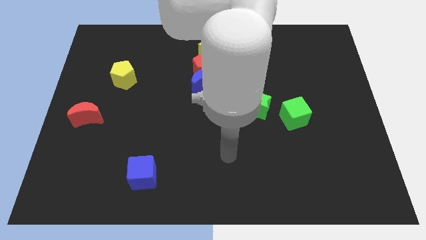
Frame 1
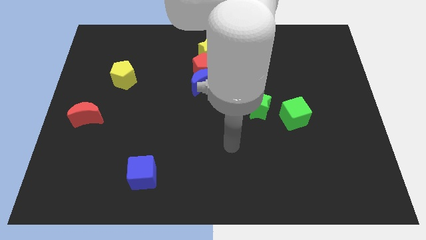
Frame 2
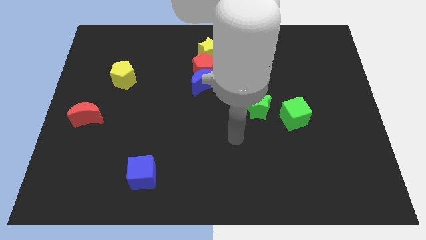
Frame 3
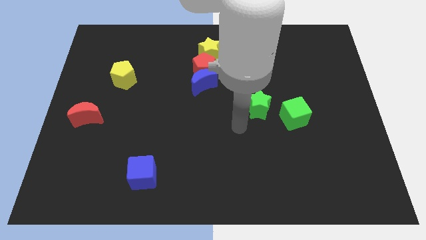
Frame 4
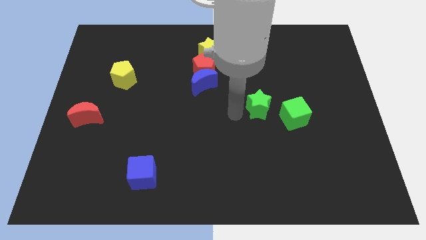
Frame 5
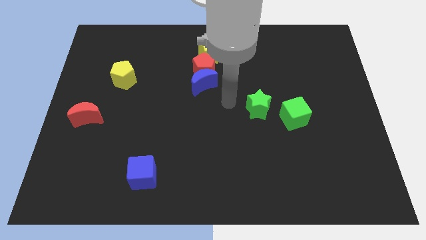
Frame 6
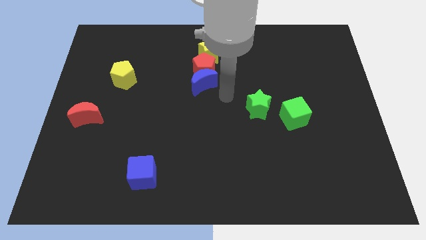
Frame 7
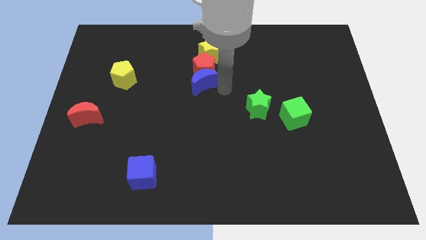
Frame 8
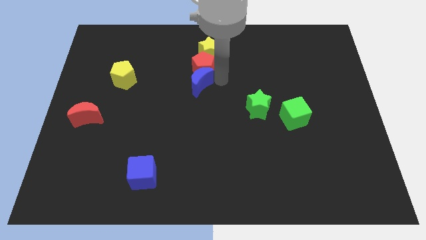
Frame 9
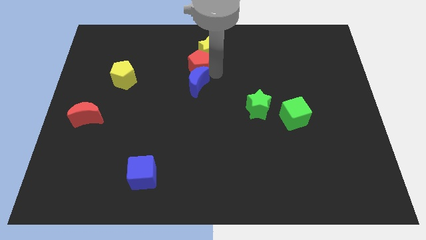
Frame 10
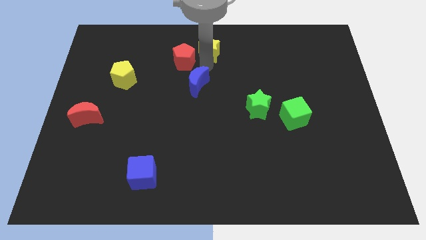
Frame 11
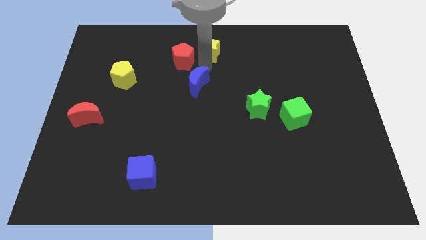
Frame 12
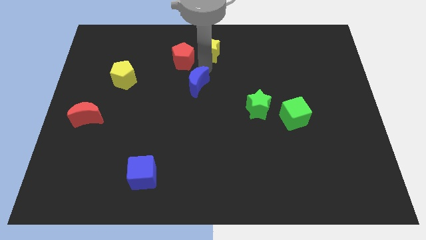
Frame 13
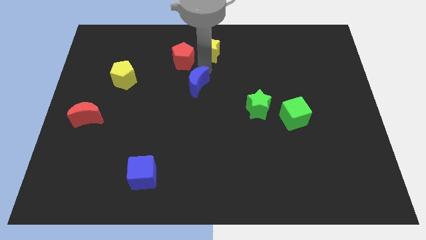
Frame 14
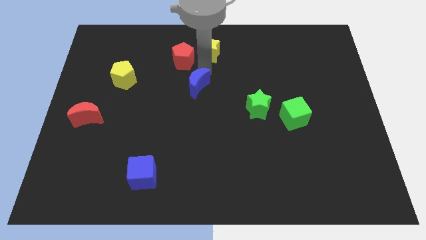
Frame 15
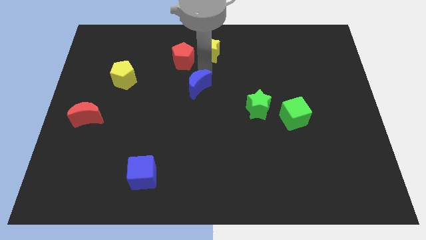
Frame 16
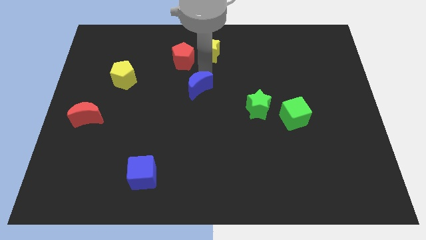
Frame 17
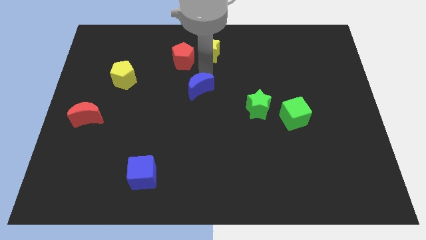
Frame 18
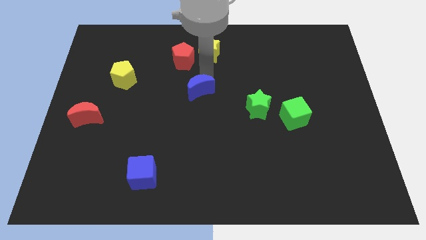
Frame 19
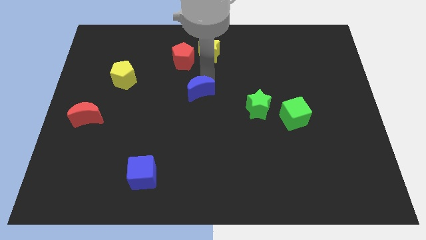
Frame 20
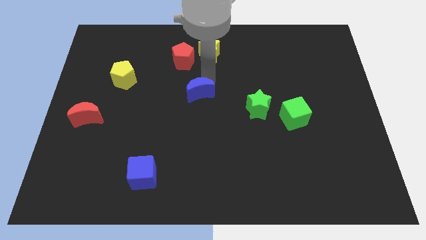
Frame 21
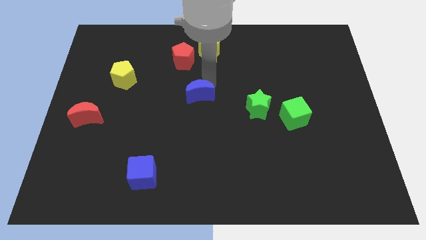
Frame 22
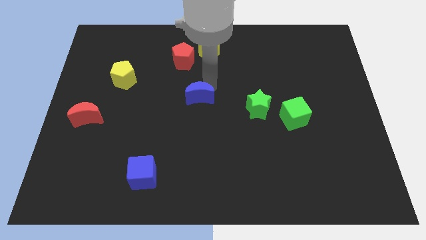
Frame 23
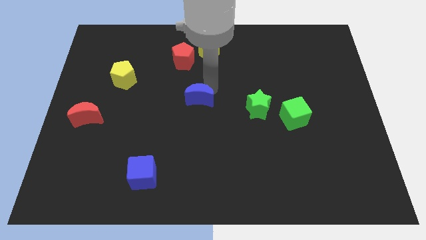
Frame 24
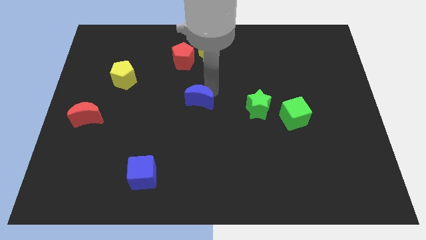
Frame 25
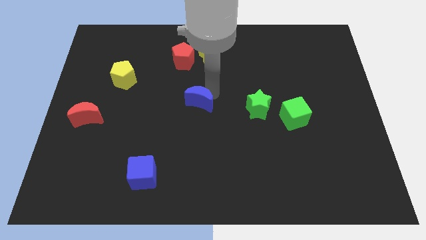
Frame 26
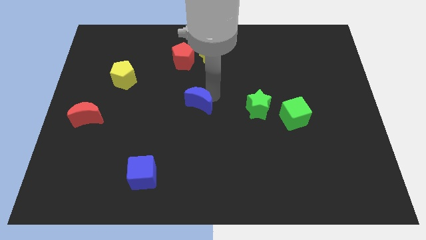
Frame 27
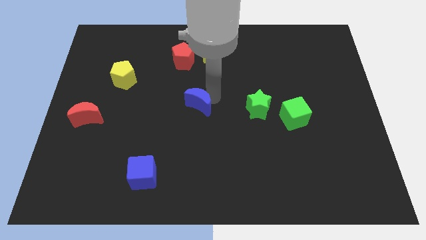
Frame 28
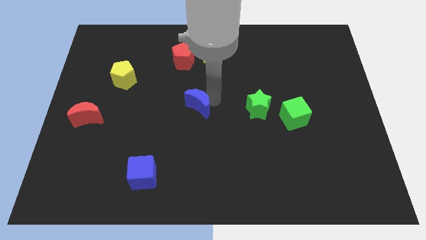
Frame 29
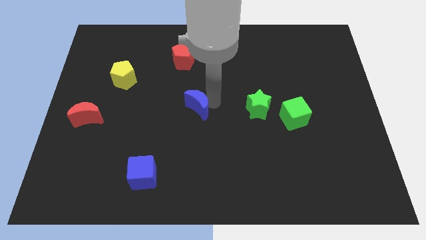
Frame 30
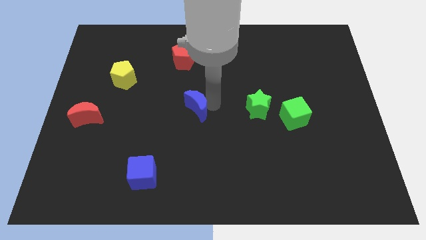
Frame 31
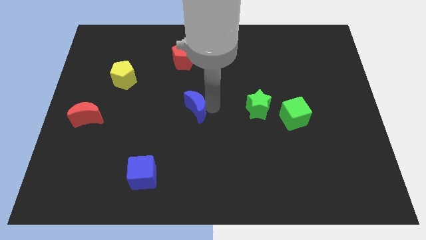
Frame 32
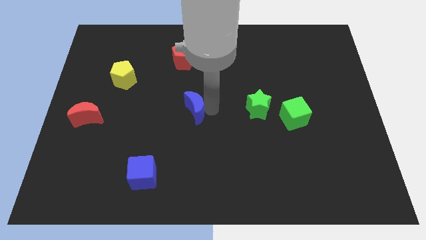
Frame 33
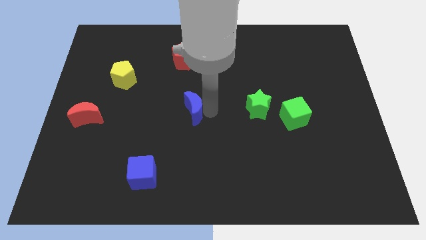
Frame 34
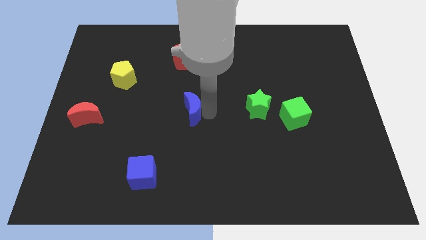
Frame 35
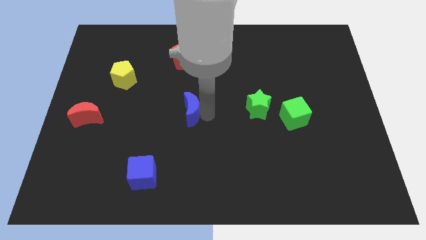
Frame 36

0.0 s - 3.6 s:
move the blue moon a bit down and to the left

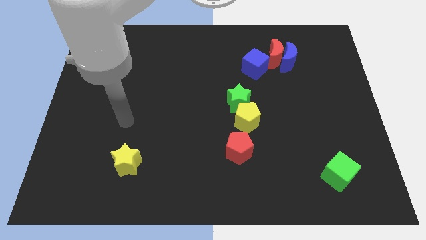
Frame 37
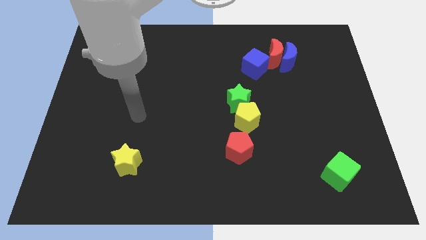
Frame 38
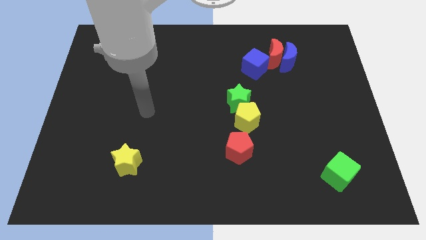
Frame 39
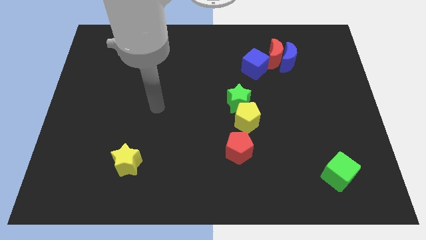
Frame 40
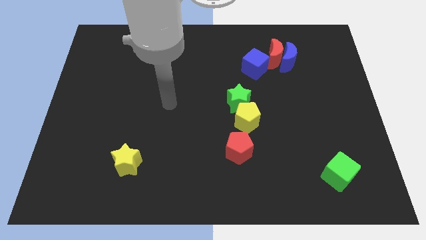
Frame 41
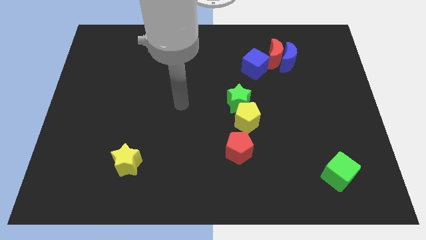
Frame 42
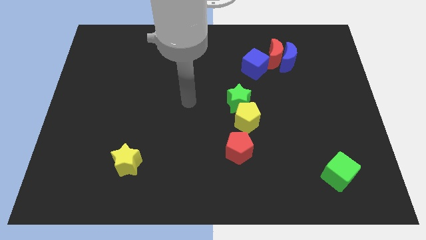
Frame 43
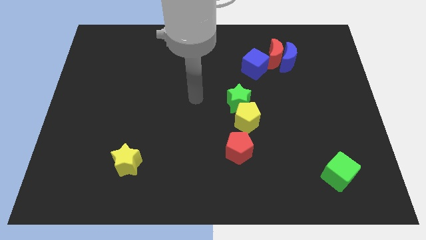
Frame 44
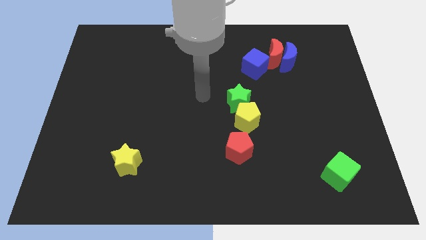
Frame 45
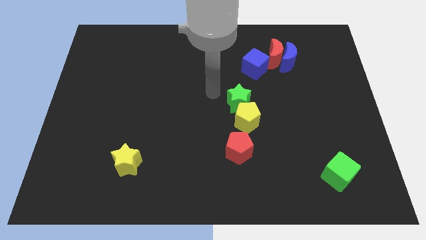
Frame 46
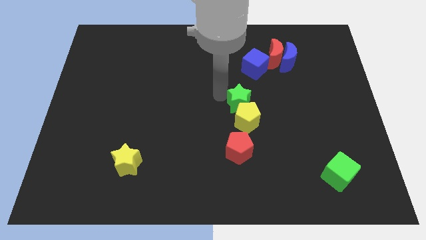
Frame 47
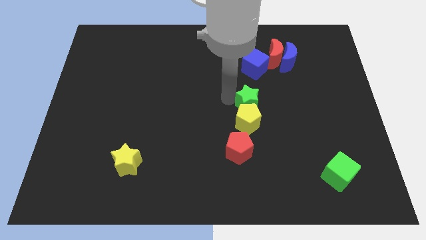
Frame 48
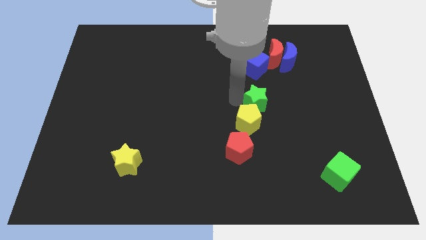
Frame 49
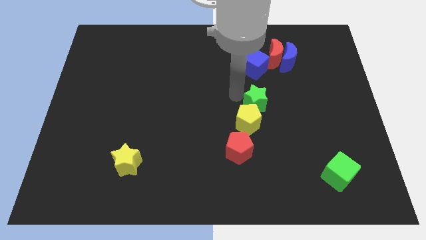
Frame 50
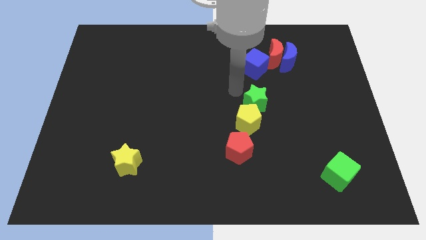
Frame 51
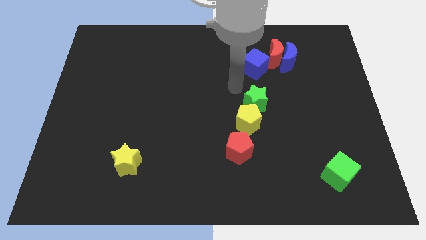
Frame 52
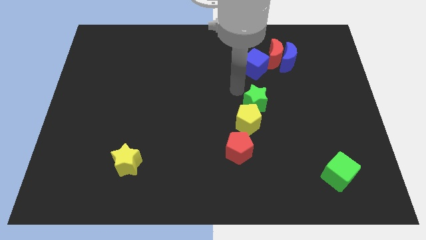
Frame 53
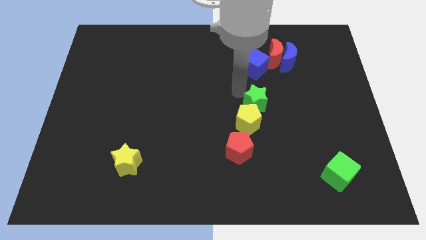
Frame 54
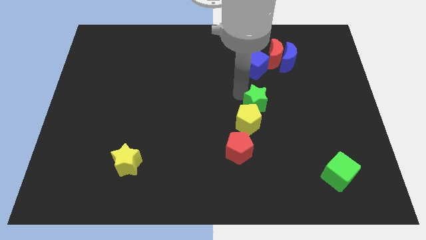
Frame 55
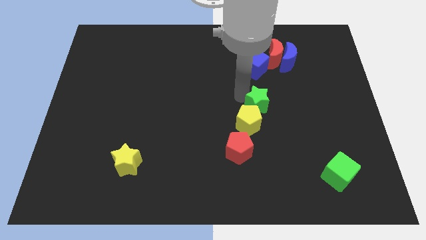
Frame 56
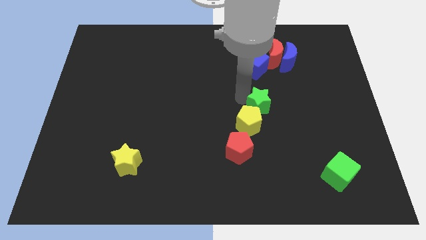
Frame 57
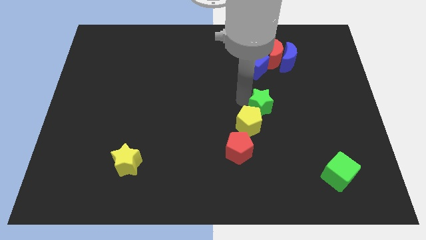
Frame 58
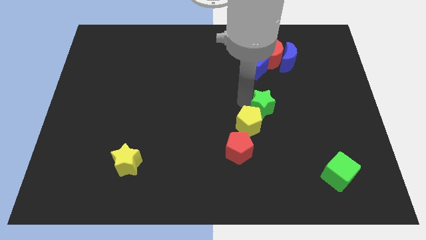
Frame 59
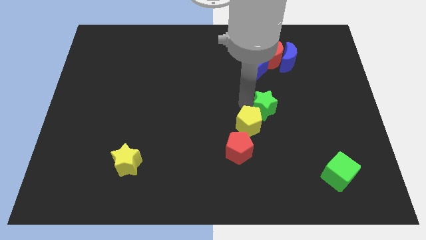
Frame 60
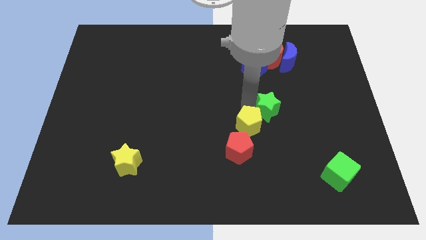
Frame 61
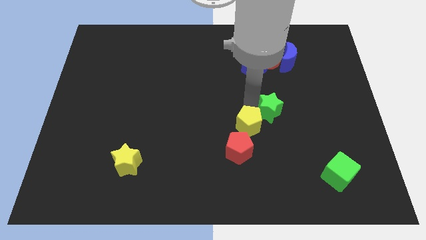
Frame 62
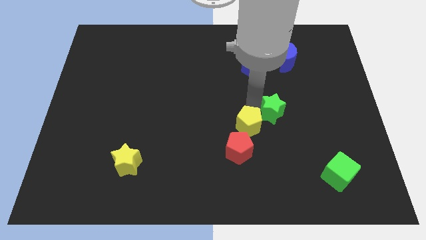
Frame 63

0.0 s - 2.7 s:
slightly slide the green star downwards and right

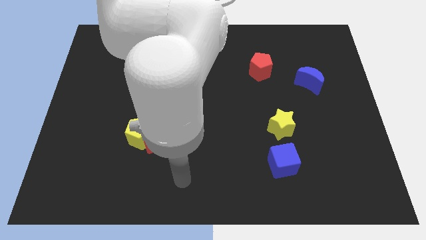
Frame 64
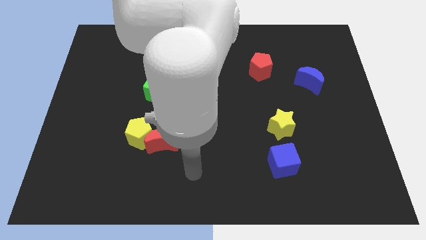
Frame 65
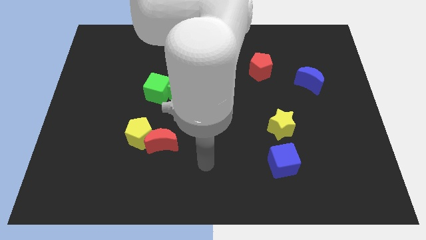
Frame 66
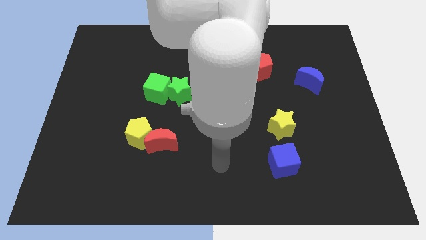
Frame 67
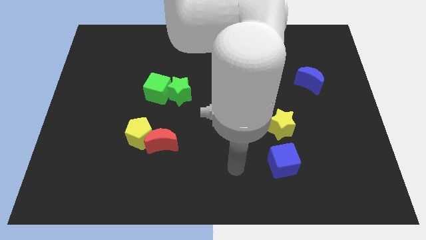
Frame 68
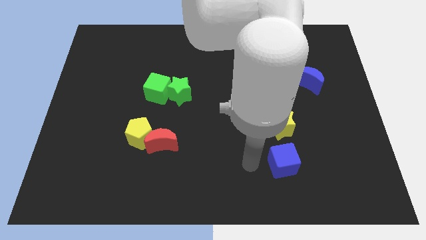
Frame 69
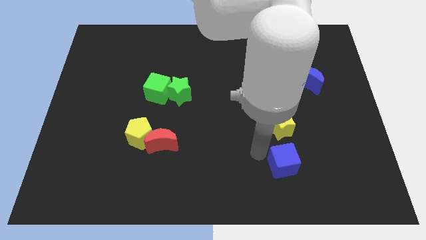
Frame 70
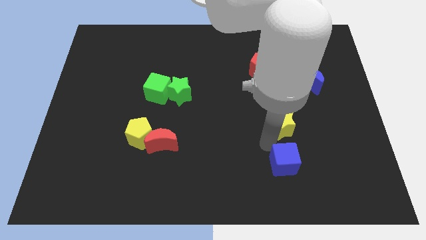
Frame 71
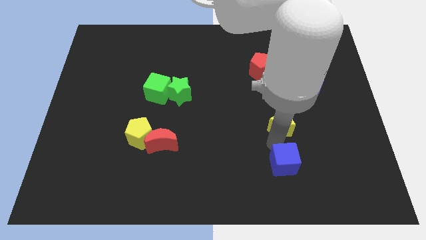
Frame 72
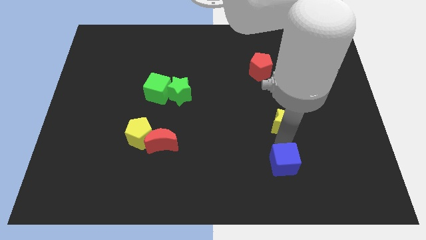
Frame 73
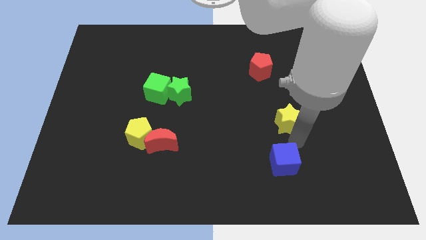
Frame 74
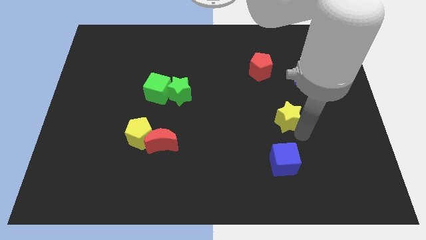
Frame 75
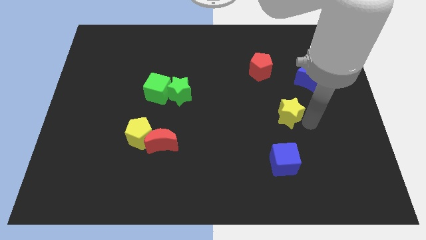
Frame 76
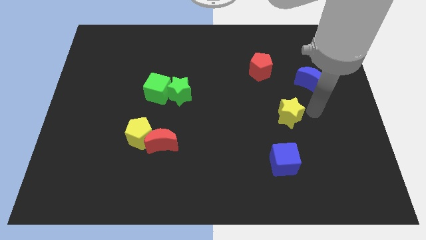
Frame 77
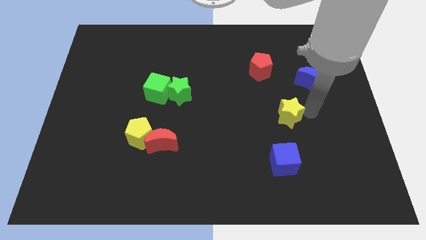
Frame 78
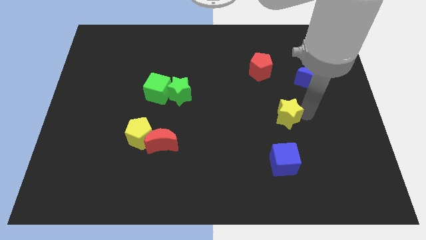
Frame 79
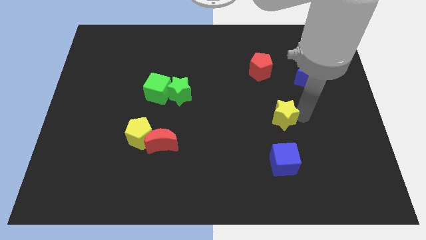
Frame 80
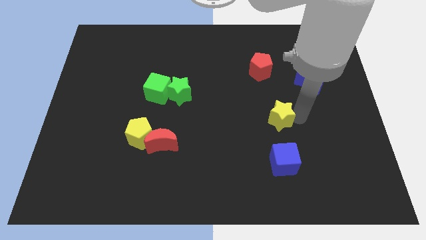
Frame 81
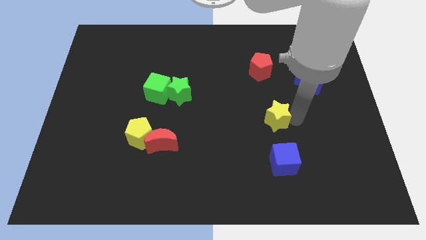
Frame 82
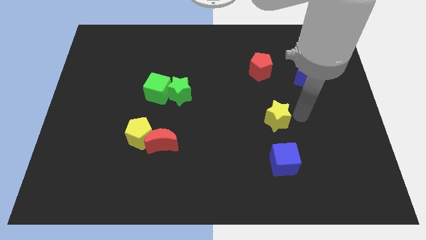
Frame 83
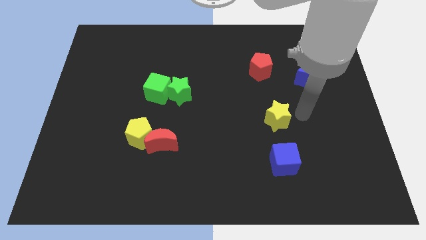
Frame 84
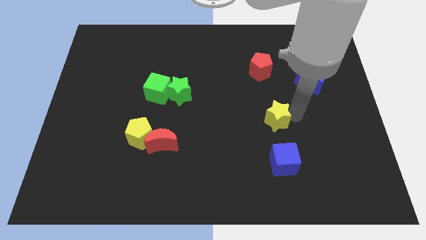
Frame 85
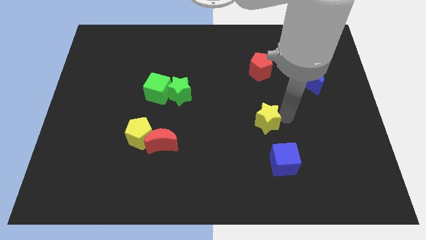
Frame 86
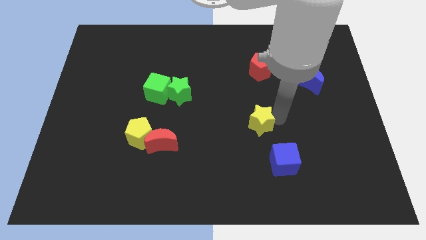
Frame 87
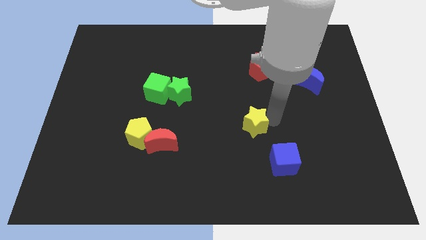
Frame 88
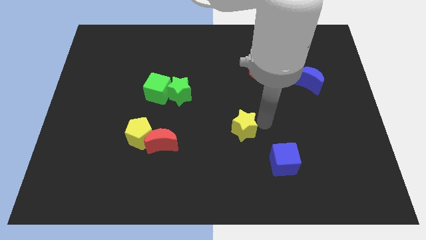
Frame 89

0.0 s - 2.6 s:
slightly push the yellow star to the left
